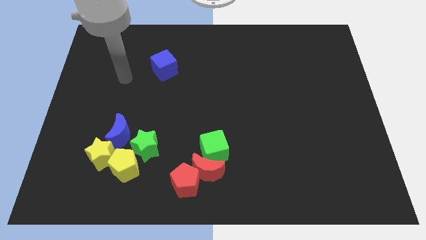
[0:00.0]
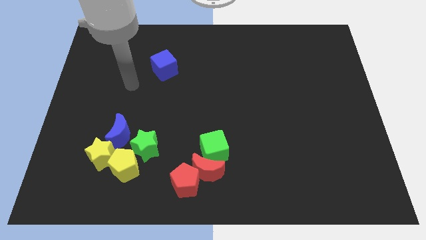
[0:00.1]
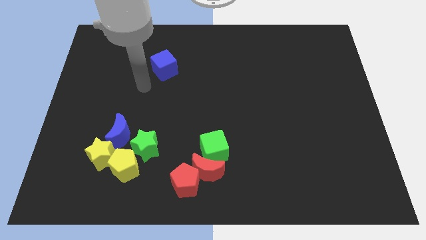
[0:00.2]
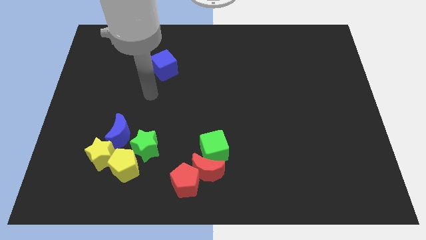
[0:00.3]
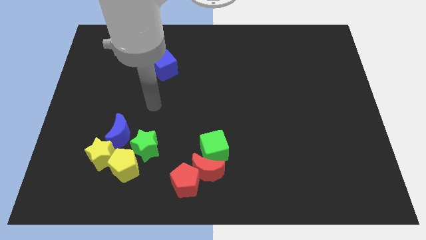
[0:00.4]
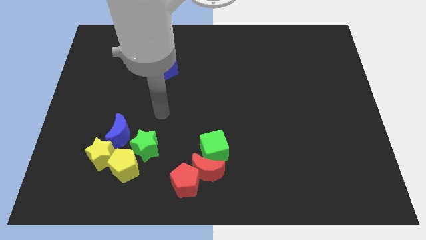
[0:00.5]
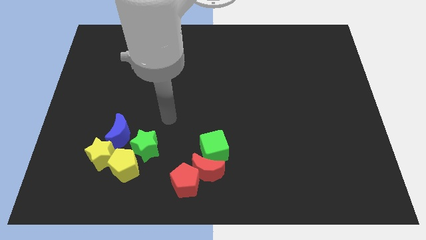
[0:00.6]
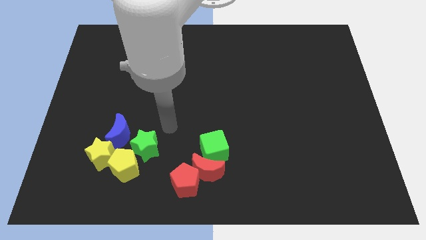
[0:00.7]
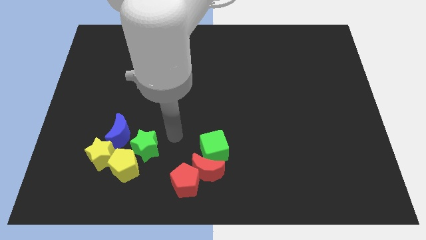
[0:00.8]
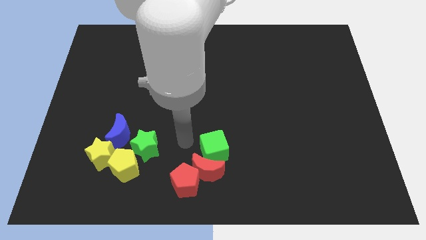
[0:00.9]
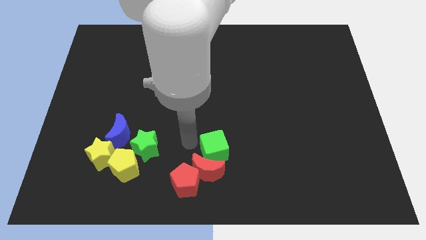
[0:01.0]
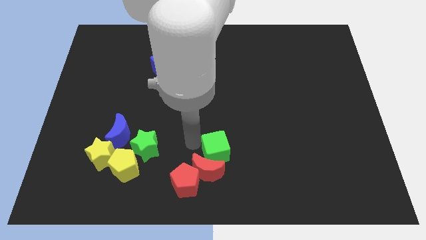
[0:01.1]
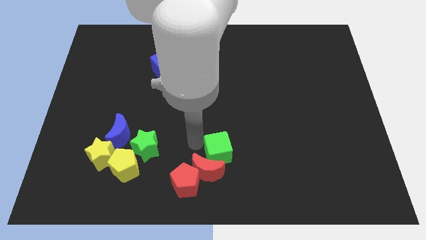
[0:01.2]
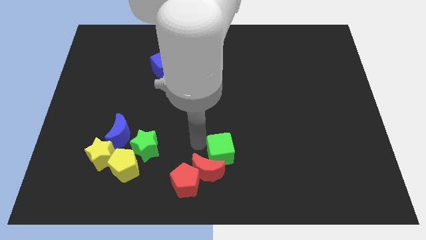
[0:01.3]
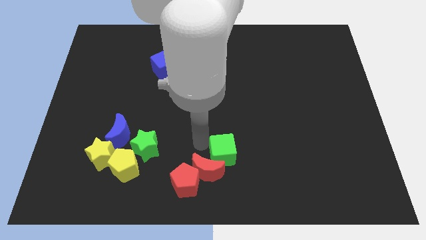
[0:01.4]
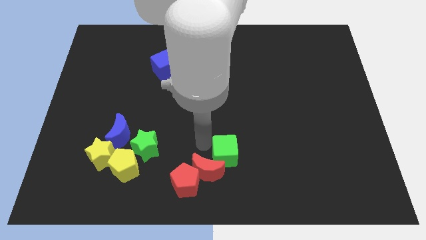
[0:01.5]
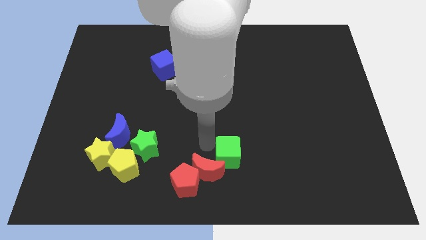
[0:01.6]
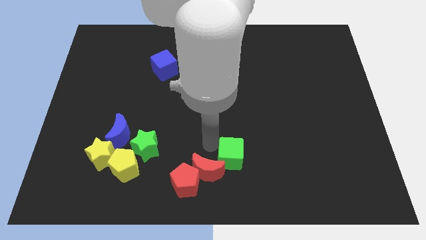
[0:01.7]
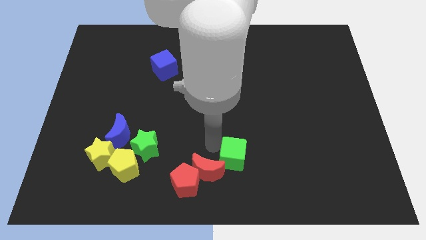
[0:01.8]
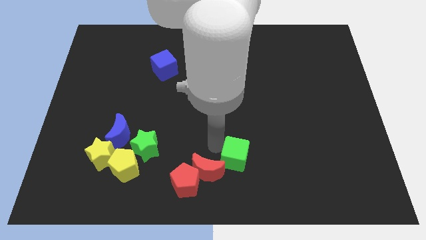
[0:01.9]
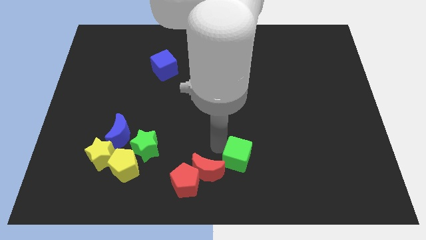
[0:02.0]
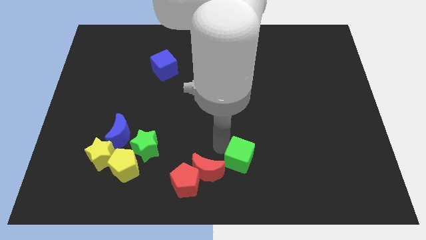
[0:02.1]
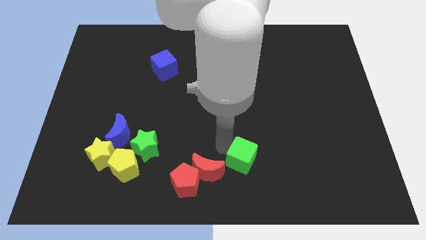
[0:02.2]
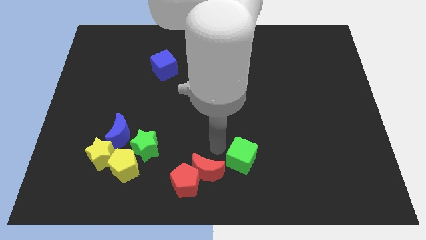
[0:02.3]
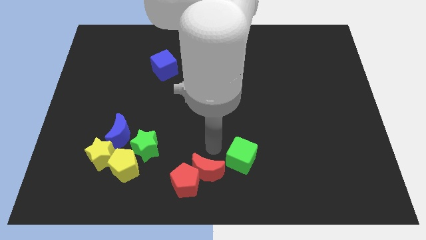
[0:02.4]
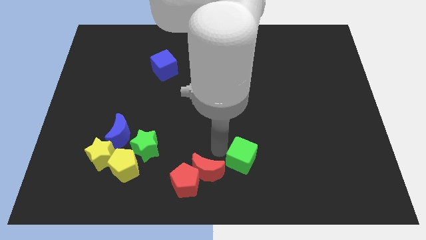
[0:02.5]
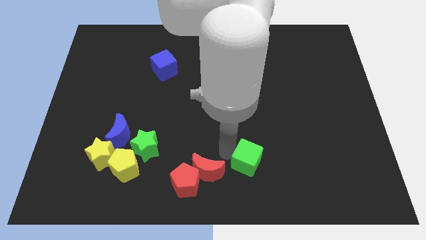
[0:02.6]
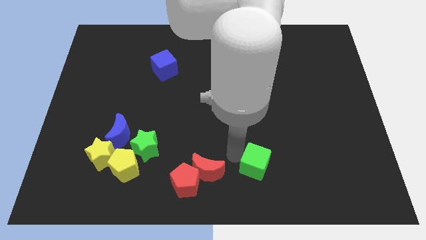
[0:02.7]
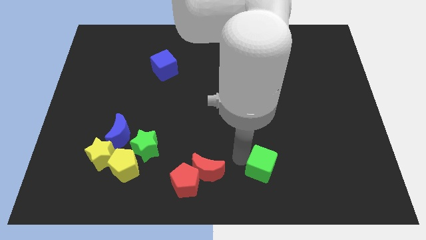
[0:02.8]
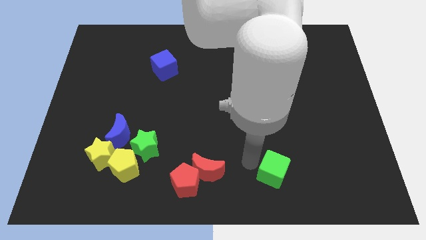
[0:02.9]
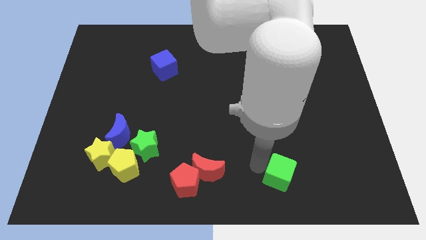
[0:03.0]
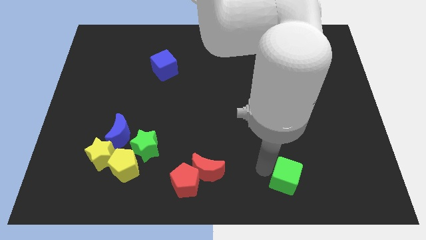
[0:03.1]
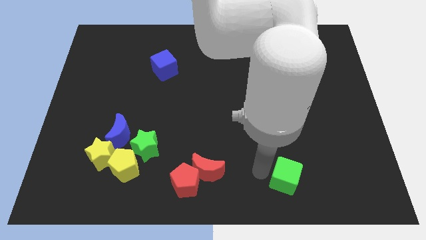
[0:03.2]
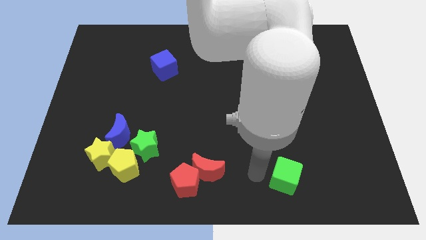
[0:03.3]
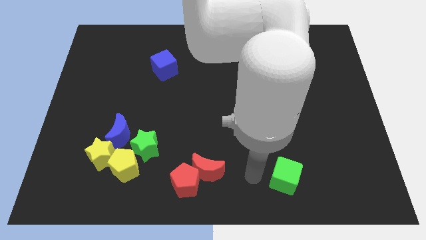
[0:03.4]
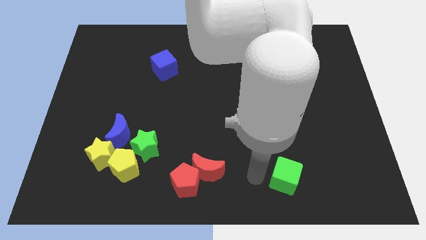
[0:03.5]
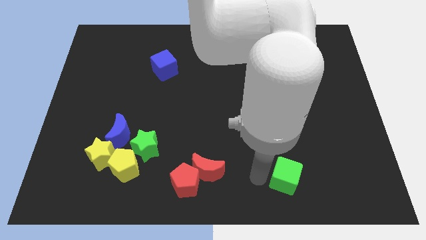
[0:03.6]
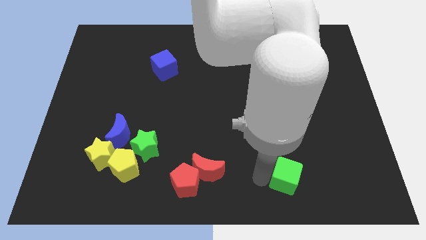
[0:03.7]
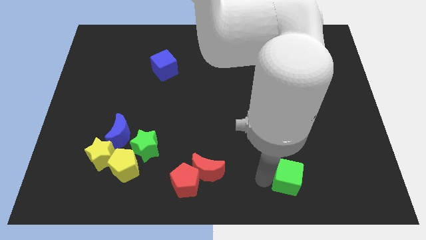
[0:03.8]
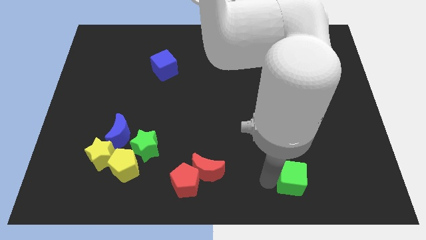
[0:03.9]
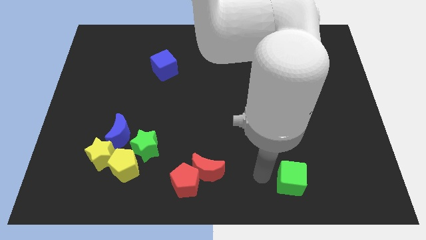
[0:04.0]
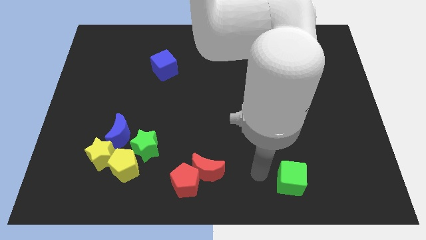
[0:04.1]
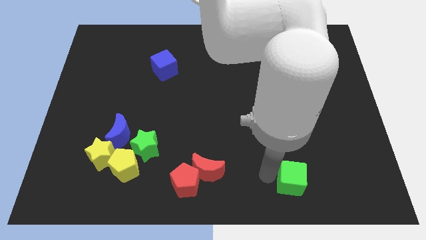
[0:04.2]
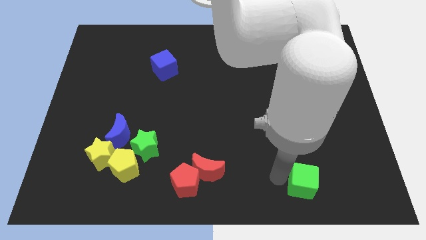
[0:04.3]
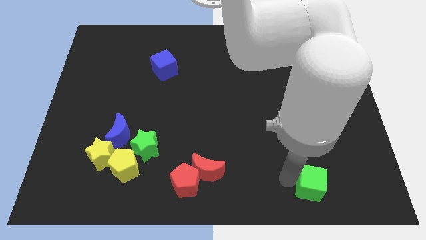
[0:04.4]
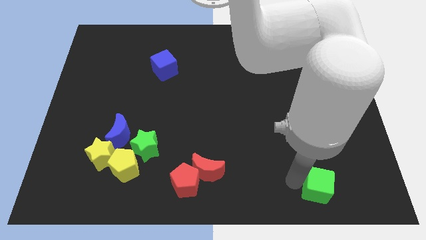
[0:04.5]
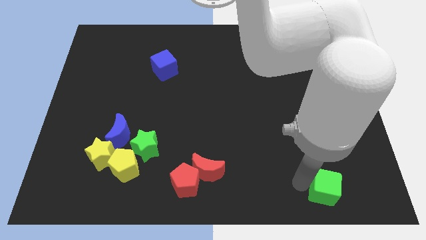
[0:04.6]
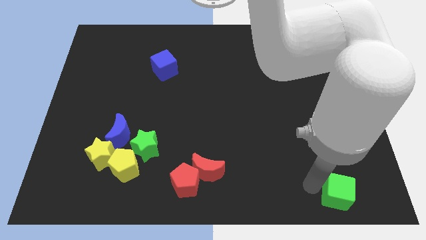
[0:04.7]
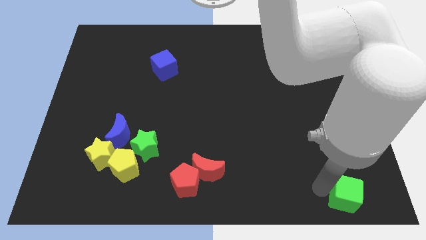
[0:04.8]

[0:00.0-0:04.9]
slide the green cube to the bottom right

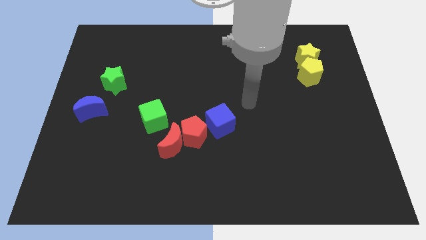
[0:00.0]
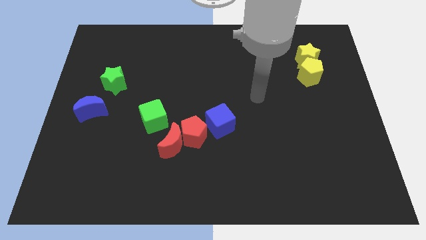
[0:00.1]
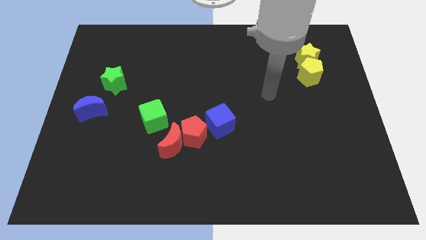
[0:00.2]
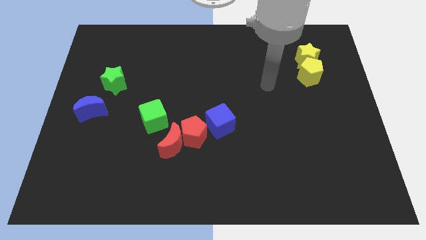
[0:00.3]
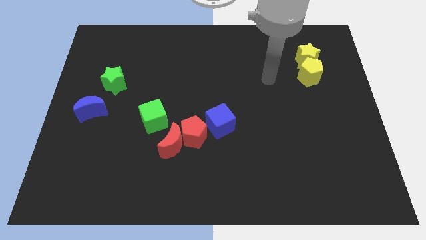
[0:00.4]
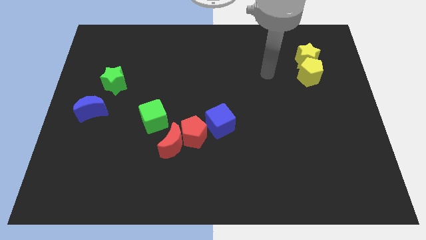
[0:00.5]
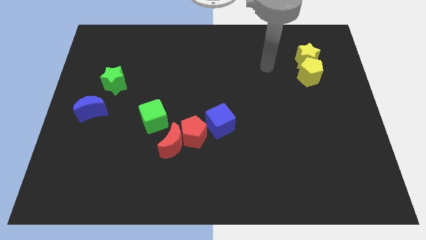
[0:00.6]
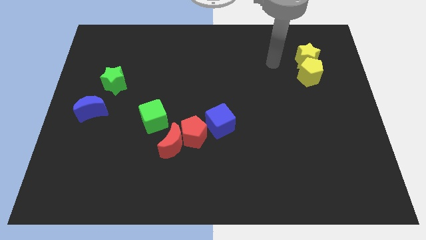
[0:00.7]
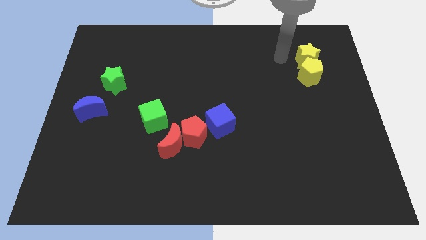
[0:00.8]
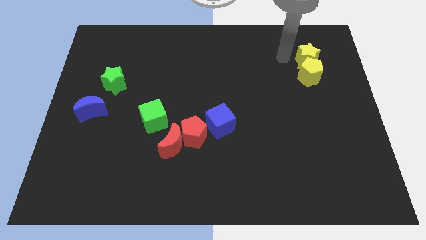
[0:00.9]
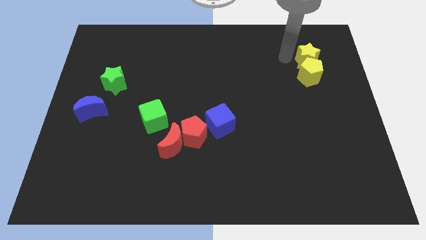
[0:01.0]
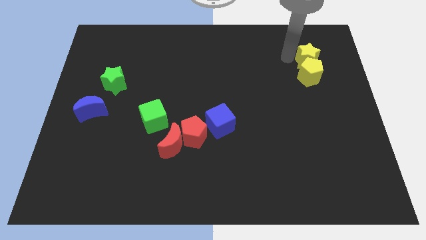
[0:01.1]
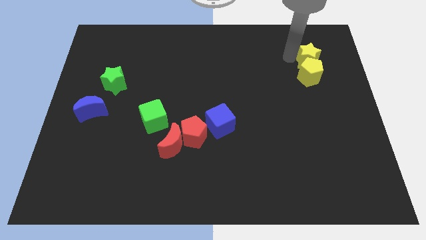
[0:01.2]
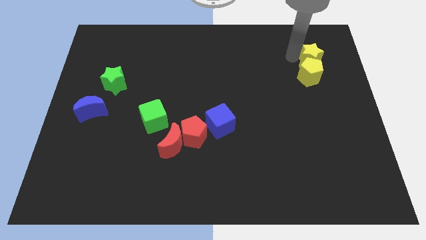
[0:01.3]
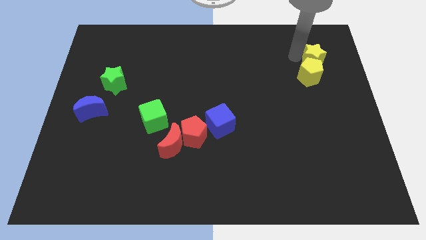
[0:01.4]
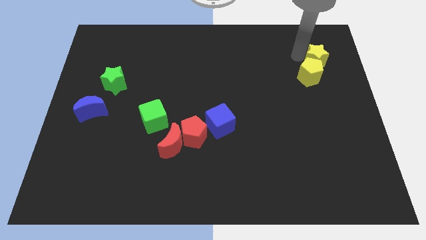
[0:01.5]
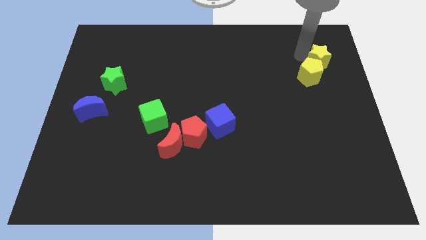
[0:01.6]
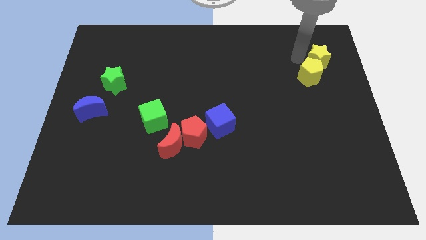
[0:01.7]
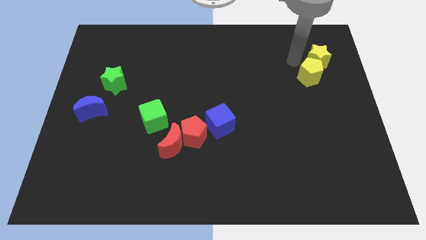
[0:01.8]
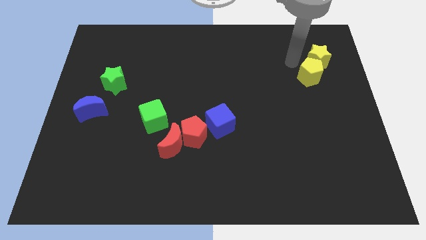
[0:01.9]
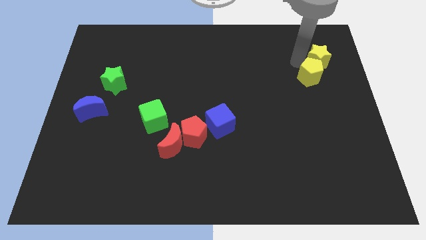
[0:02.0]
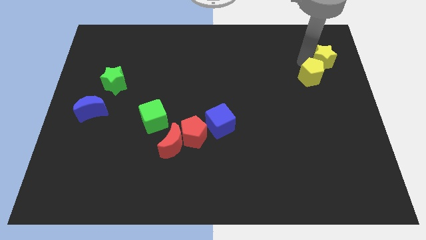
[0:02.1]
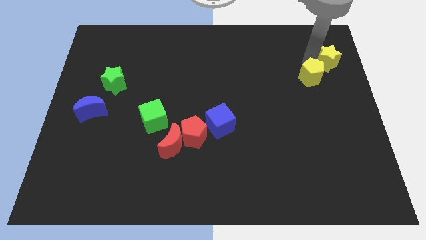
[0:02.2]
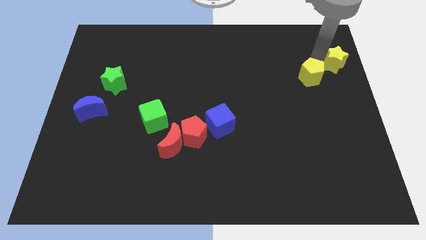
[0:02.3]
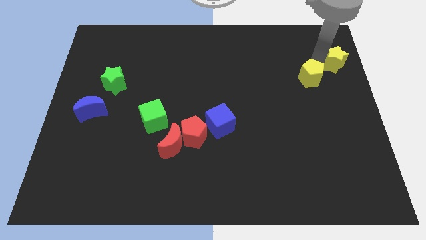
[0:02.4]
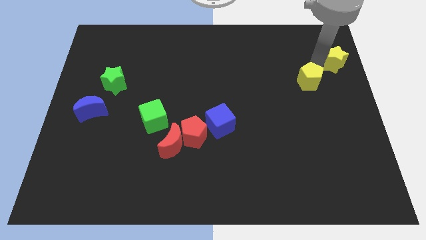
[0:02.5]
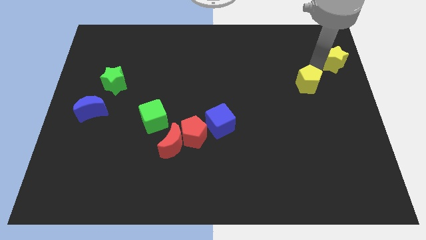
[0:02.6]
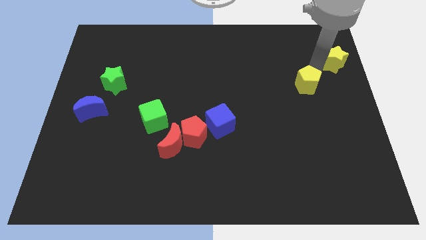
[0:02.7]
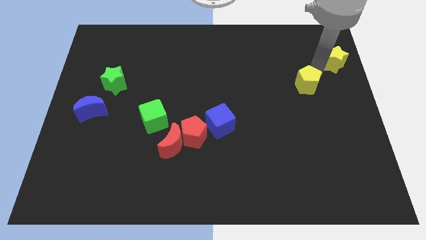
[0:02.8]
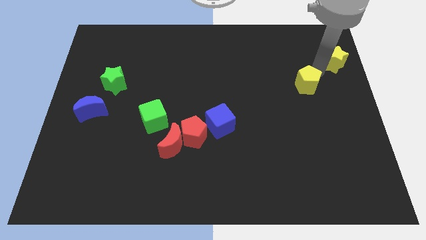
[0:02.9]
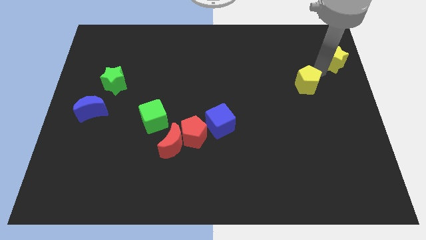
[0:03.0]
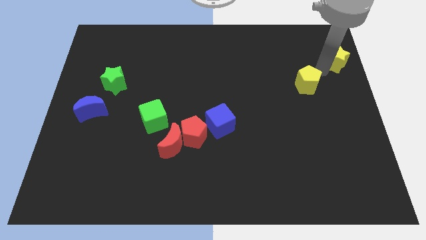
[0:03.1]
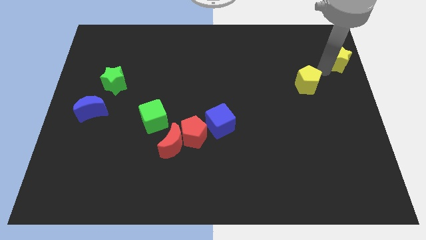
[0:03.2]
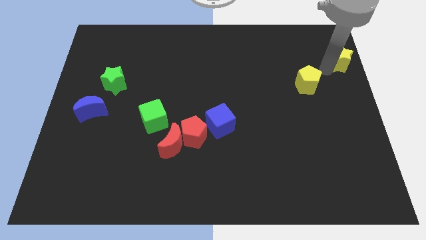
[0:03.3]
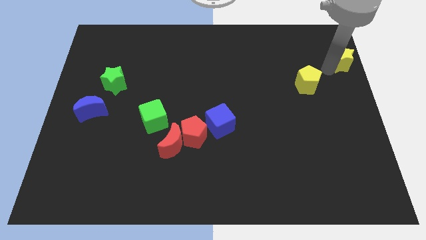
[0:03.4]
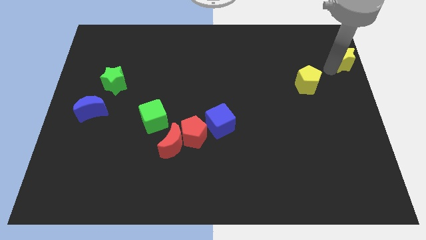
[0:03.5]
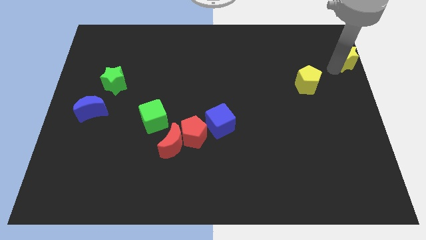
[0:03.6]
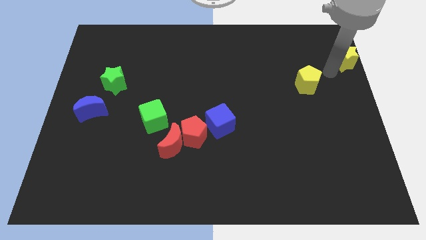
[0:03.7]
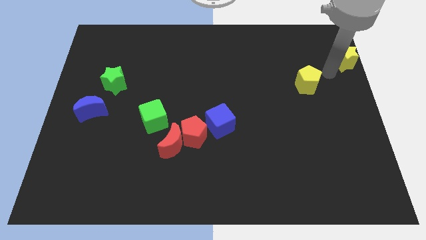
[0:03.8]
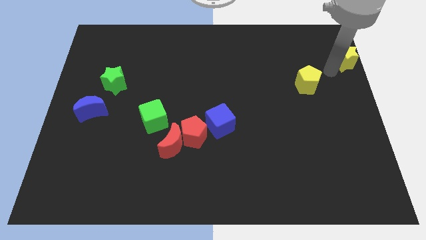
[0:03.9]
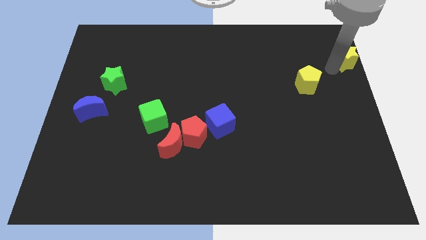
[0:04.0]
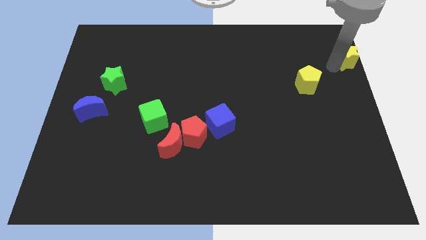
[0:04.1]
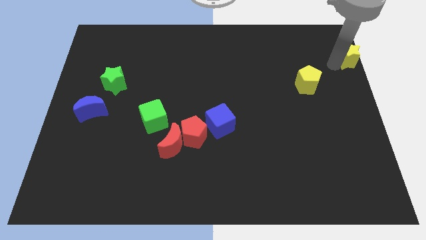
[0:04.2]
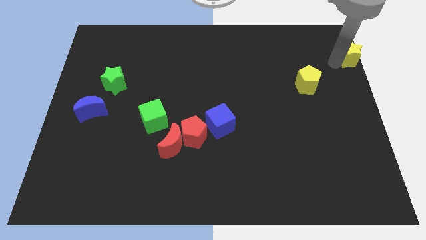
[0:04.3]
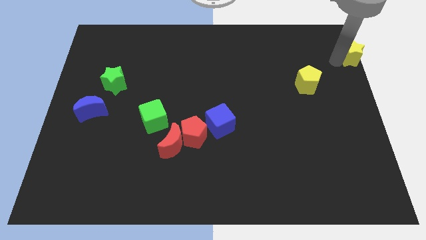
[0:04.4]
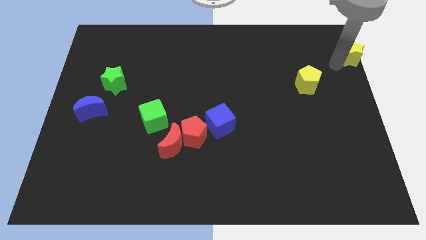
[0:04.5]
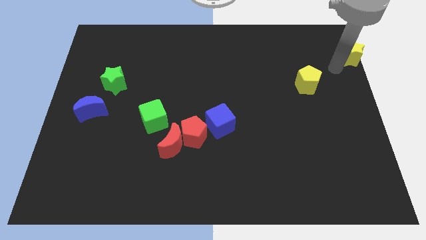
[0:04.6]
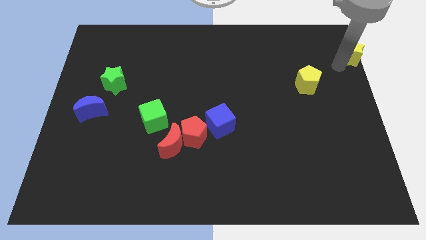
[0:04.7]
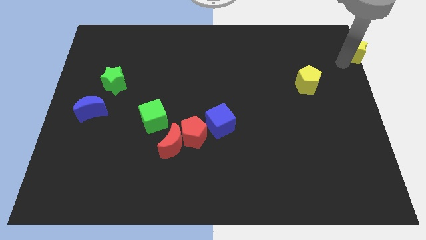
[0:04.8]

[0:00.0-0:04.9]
put the yellow star to the top right corner
